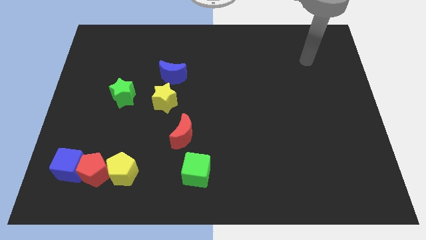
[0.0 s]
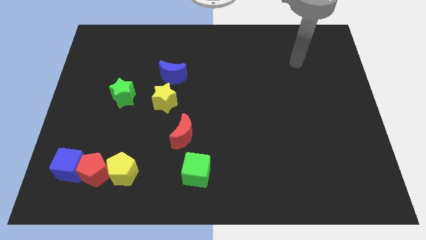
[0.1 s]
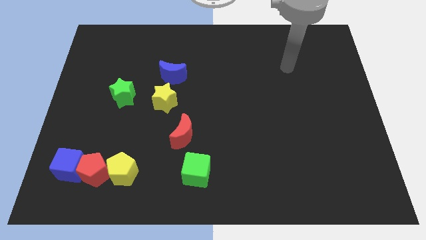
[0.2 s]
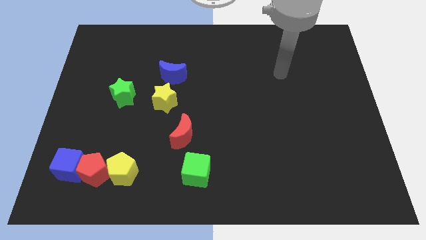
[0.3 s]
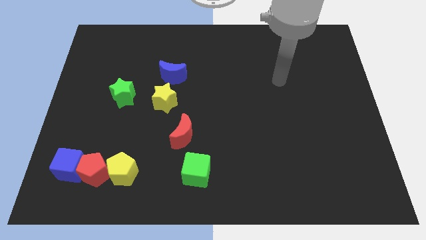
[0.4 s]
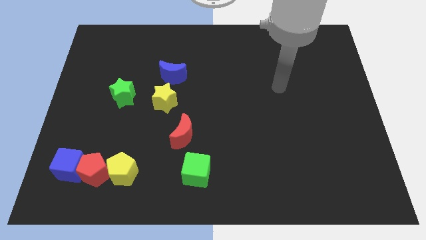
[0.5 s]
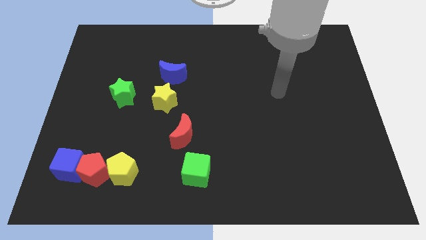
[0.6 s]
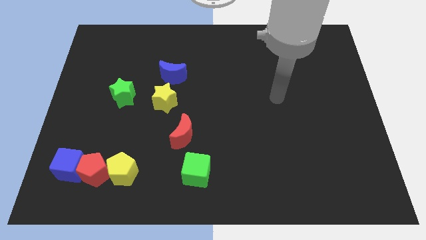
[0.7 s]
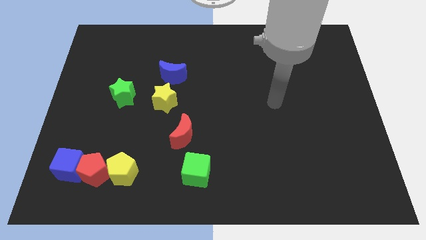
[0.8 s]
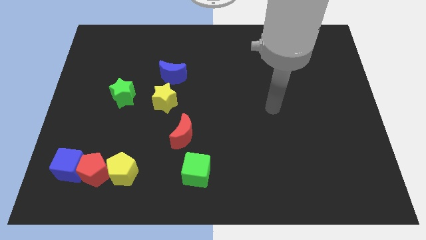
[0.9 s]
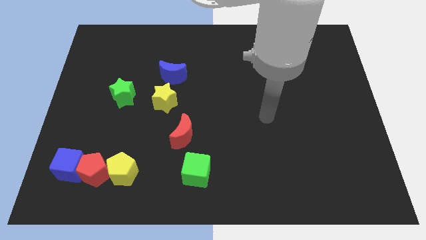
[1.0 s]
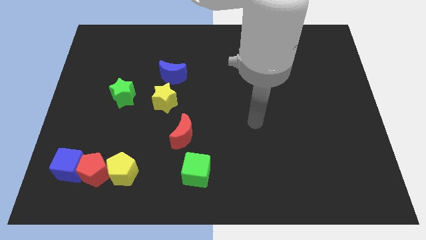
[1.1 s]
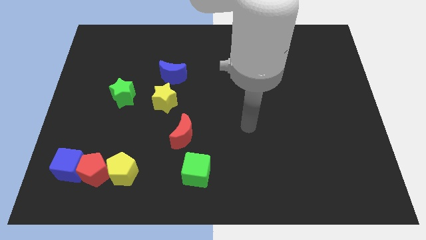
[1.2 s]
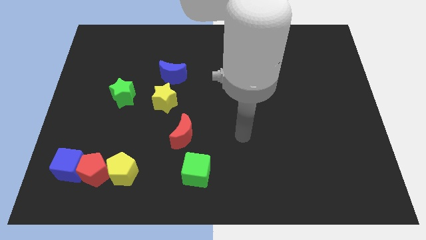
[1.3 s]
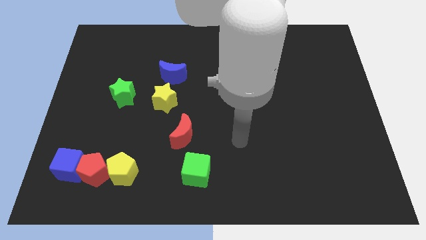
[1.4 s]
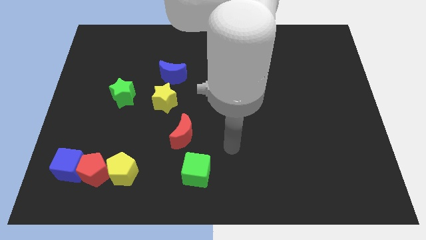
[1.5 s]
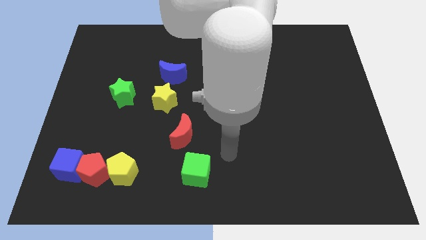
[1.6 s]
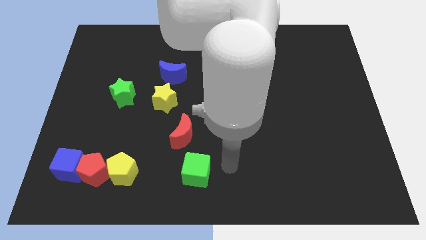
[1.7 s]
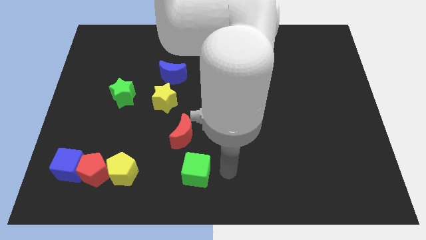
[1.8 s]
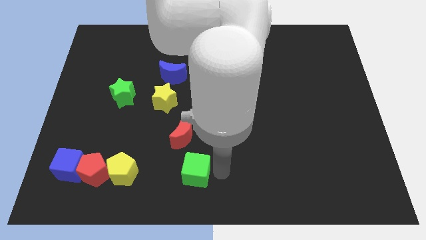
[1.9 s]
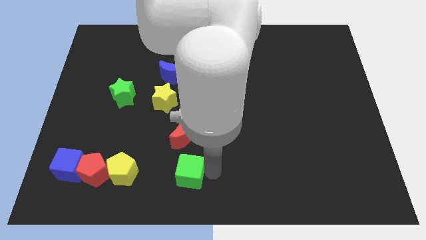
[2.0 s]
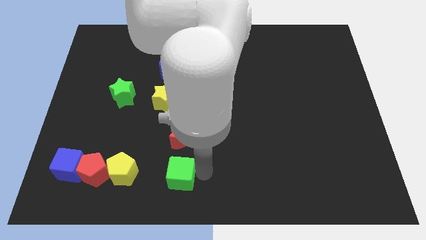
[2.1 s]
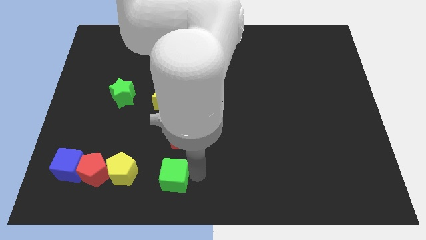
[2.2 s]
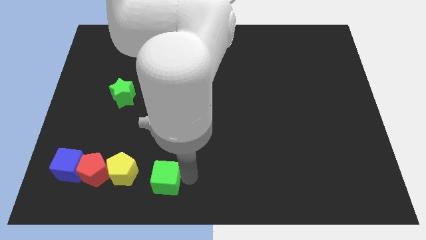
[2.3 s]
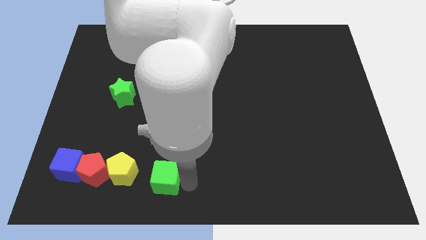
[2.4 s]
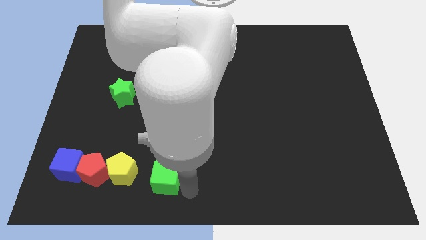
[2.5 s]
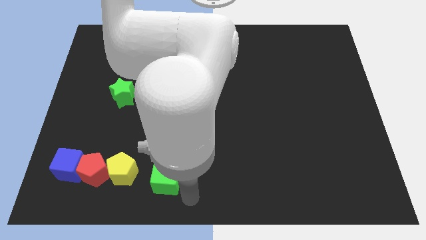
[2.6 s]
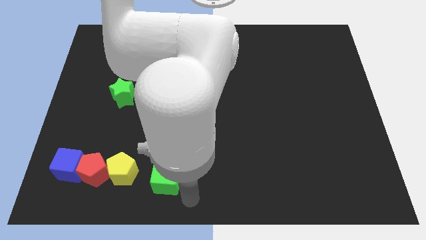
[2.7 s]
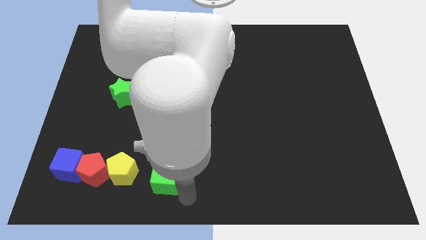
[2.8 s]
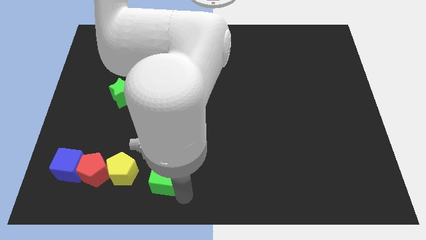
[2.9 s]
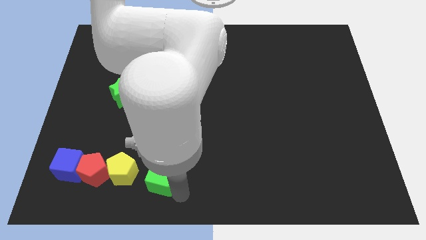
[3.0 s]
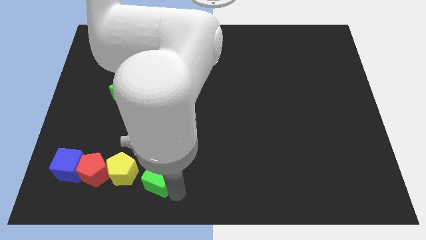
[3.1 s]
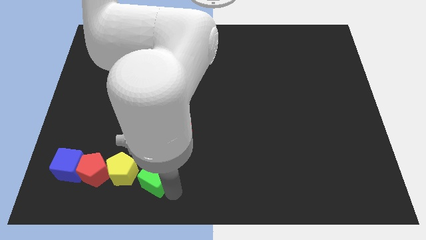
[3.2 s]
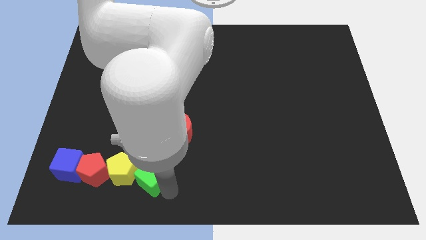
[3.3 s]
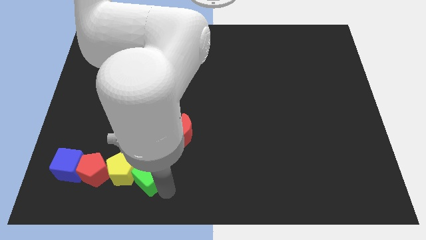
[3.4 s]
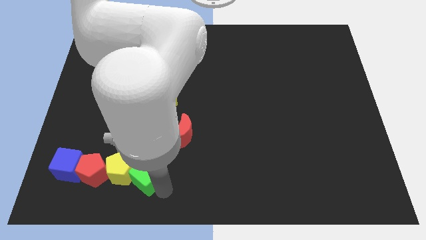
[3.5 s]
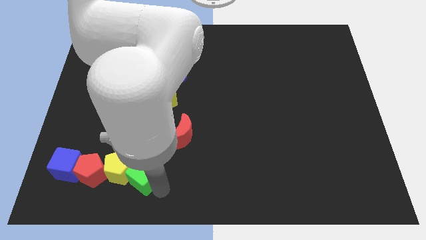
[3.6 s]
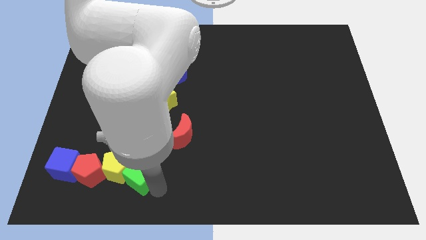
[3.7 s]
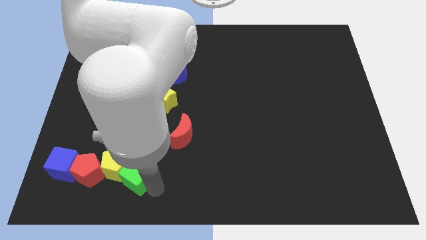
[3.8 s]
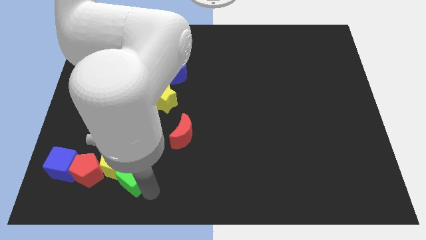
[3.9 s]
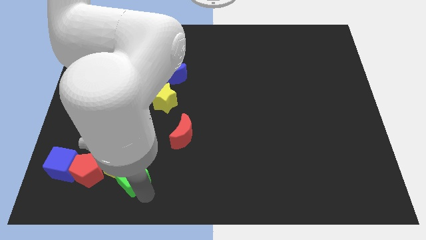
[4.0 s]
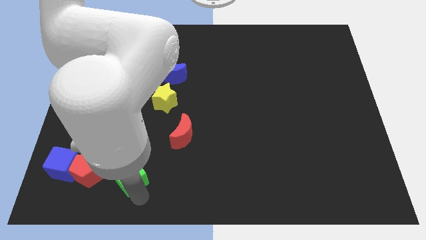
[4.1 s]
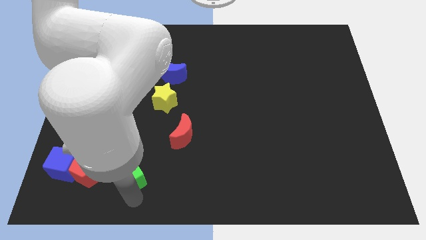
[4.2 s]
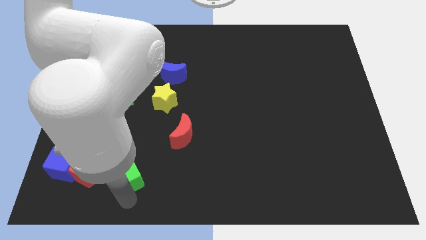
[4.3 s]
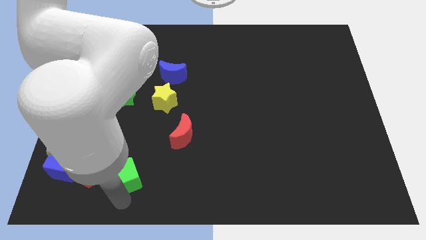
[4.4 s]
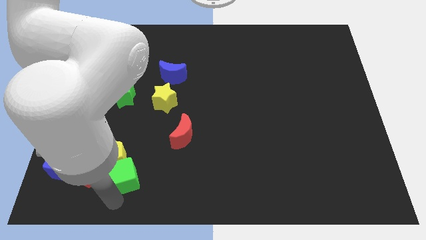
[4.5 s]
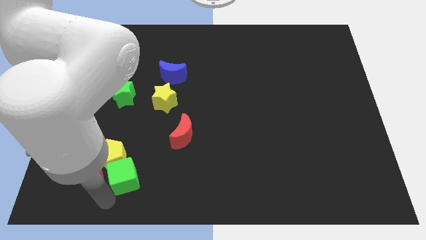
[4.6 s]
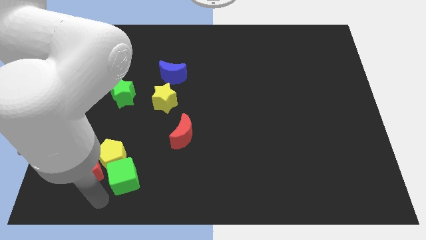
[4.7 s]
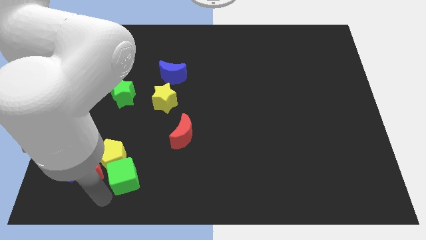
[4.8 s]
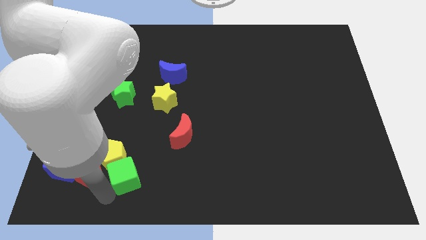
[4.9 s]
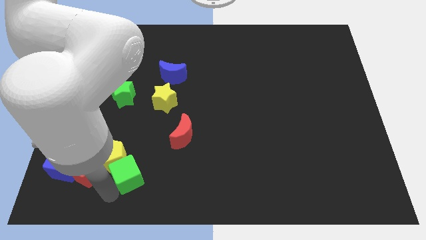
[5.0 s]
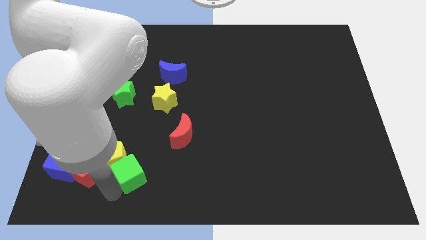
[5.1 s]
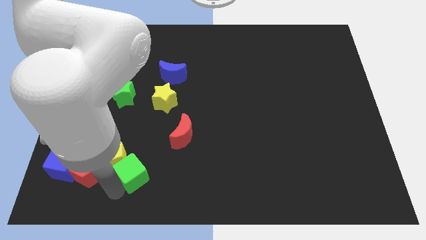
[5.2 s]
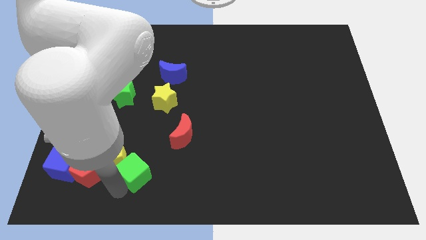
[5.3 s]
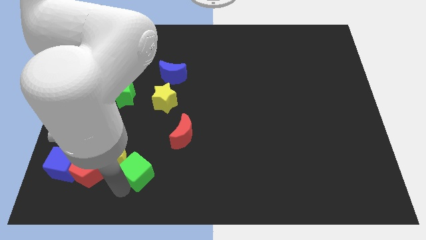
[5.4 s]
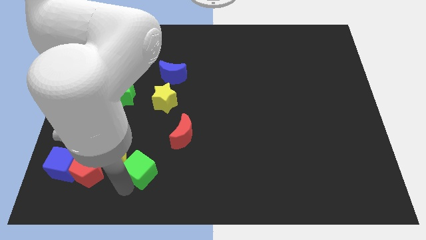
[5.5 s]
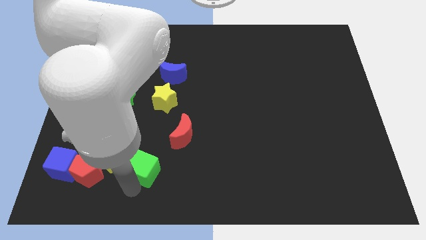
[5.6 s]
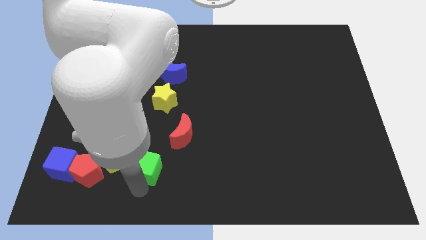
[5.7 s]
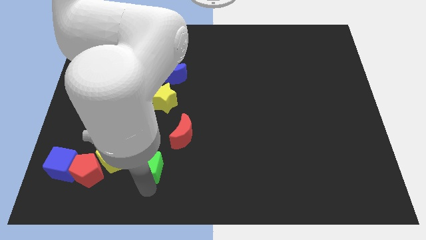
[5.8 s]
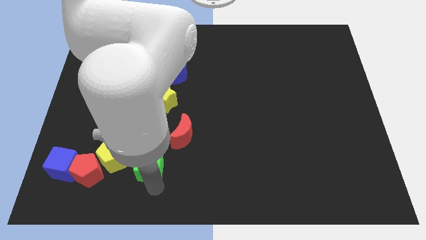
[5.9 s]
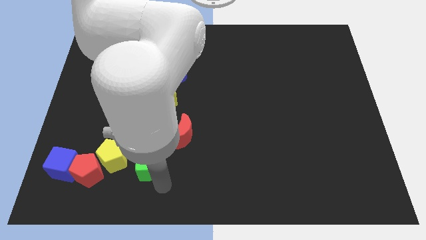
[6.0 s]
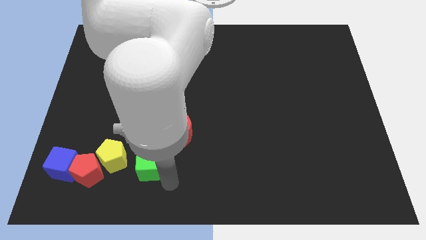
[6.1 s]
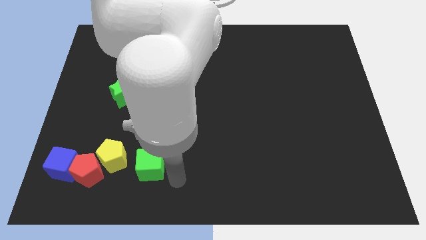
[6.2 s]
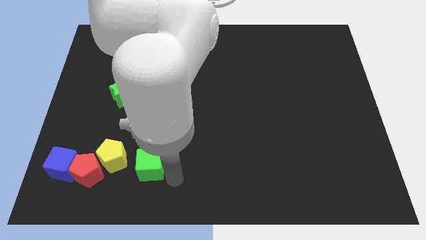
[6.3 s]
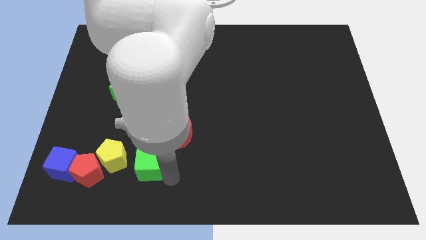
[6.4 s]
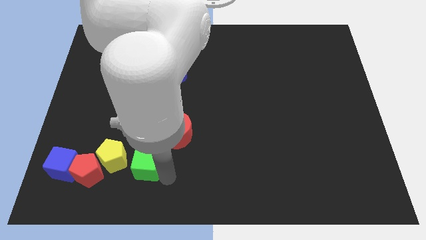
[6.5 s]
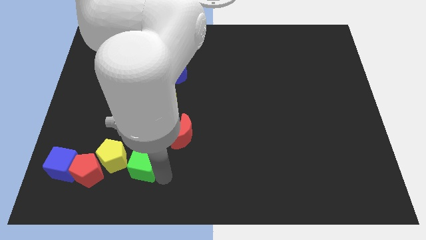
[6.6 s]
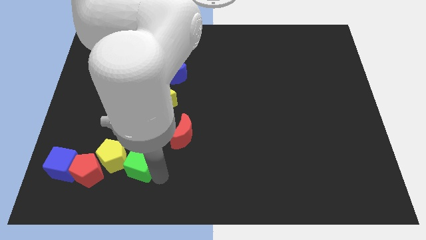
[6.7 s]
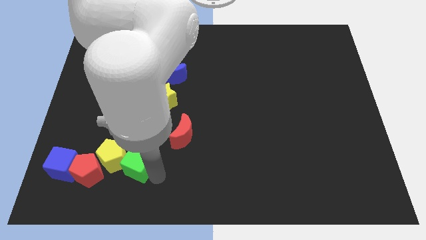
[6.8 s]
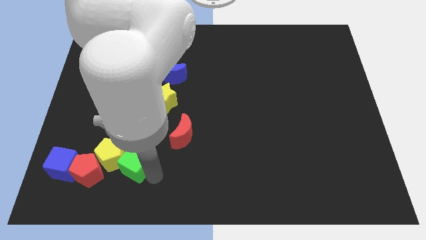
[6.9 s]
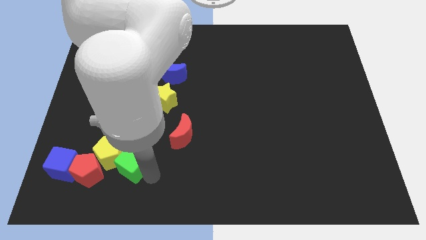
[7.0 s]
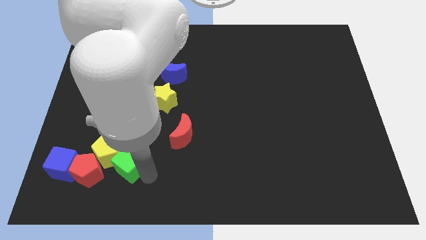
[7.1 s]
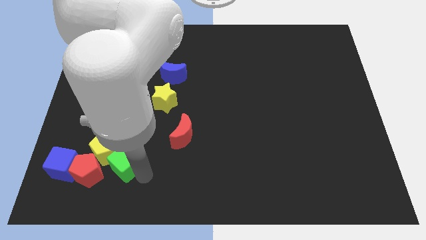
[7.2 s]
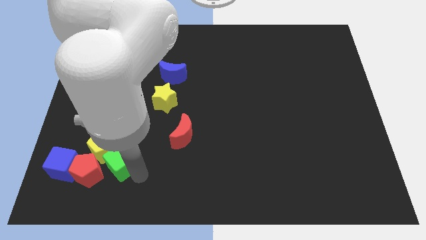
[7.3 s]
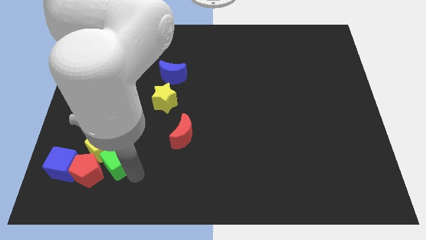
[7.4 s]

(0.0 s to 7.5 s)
slide the green cube towards the red pentagon

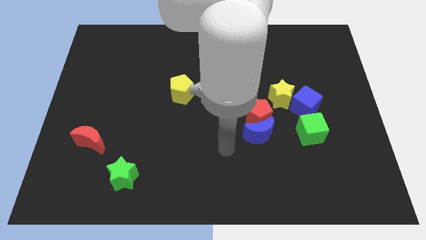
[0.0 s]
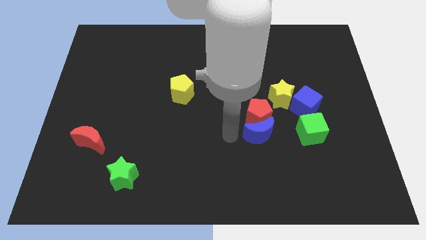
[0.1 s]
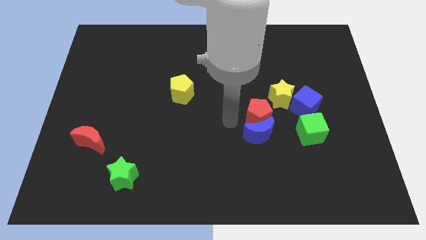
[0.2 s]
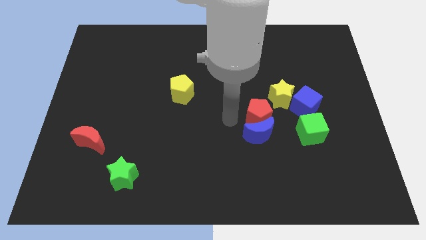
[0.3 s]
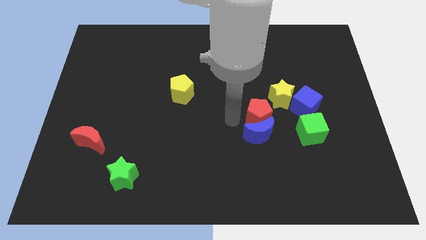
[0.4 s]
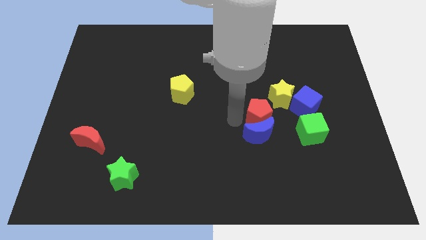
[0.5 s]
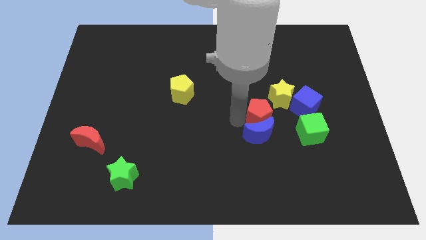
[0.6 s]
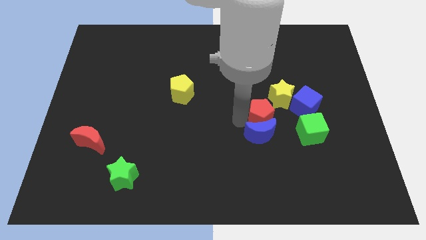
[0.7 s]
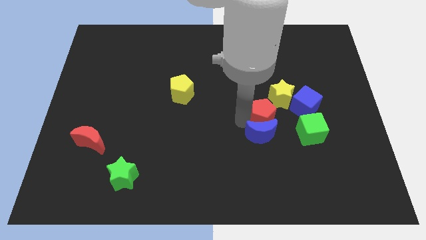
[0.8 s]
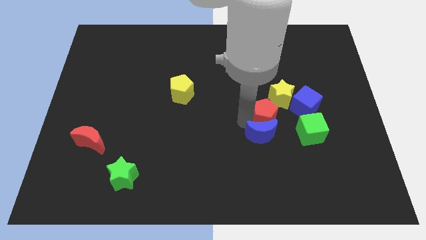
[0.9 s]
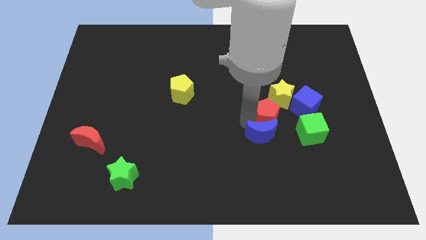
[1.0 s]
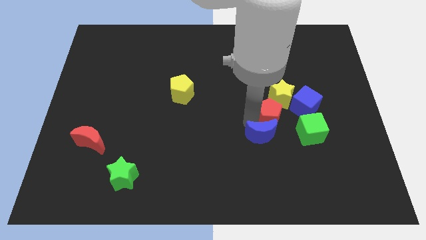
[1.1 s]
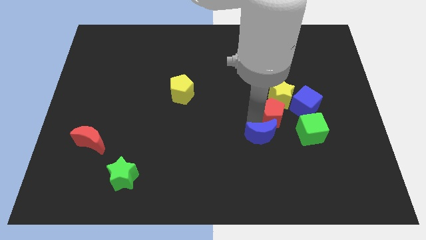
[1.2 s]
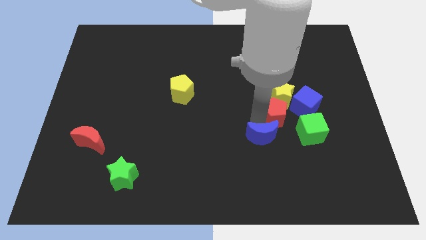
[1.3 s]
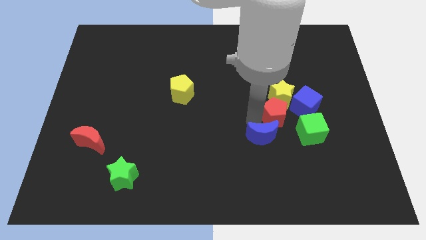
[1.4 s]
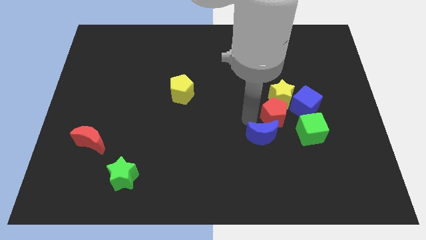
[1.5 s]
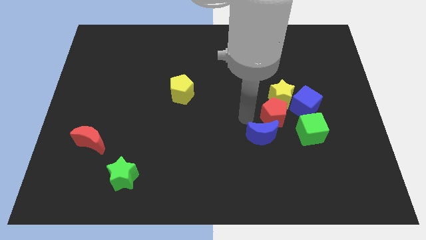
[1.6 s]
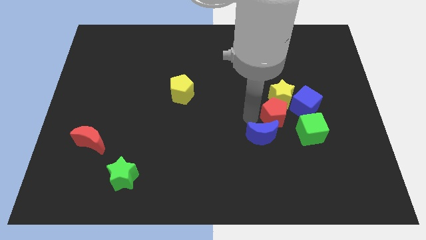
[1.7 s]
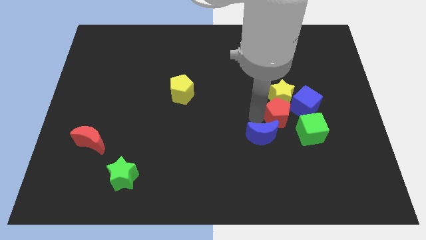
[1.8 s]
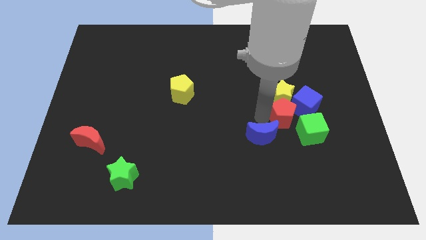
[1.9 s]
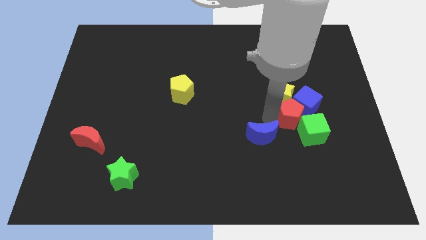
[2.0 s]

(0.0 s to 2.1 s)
push the red pentagon towards the blue cube
